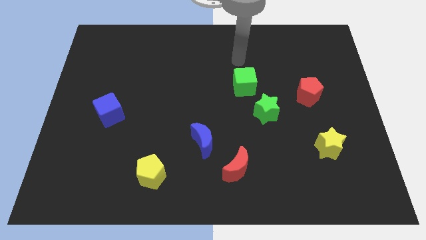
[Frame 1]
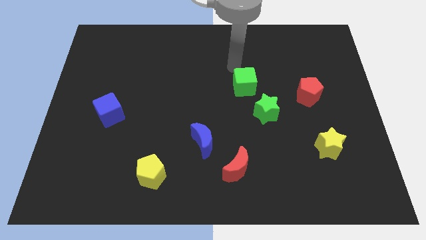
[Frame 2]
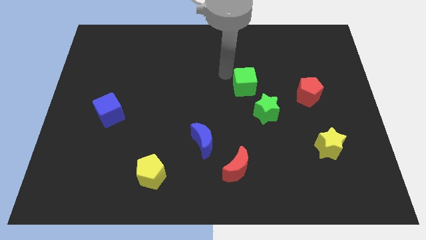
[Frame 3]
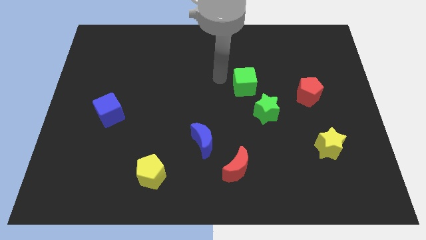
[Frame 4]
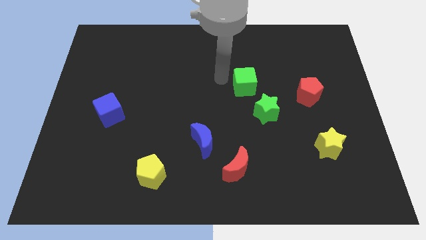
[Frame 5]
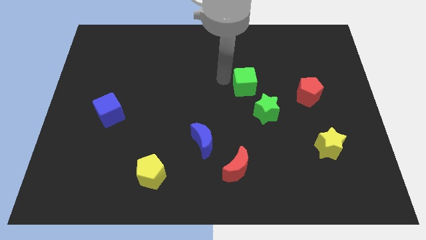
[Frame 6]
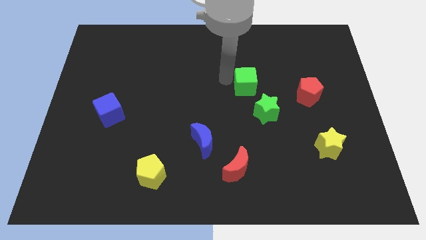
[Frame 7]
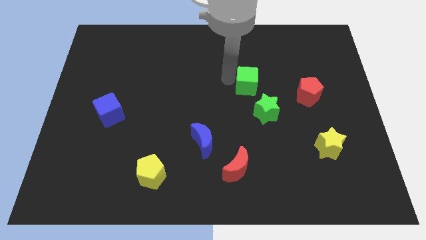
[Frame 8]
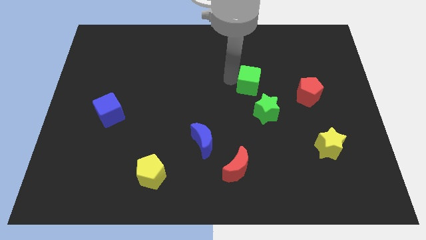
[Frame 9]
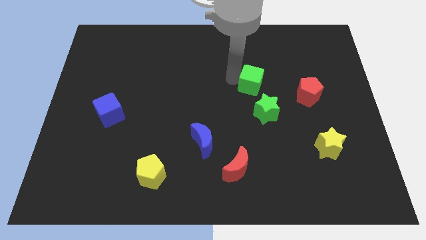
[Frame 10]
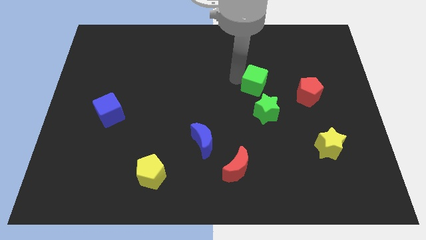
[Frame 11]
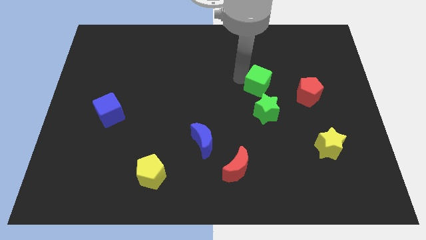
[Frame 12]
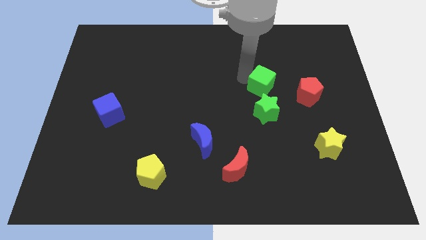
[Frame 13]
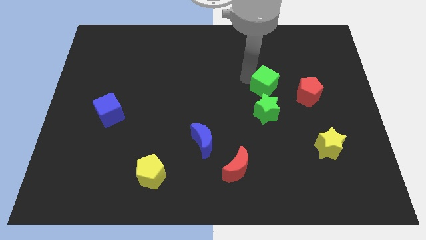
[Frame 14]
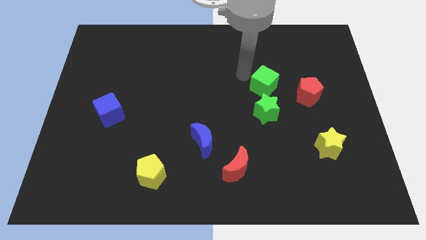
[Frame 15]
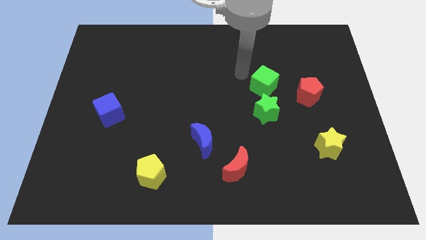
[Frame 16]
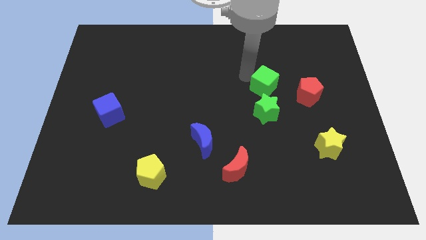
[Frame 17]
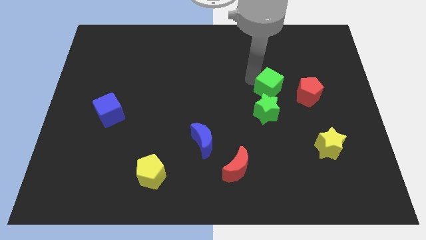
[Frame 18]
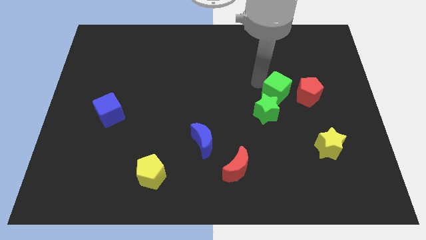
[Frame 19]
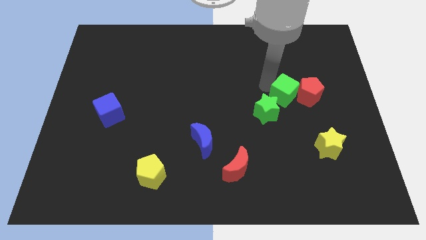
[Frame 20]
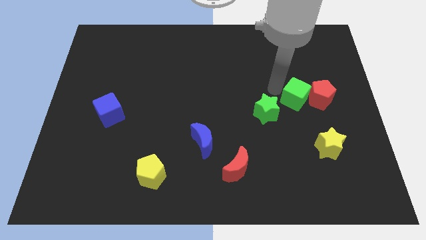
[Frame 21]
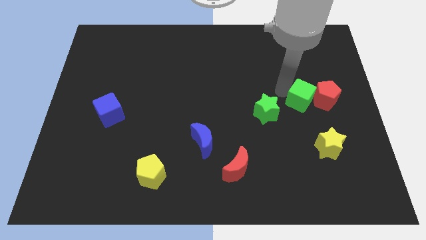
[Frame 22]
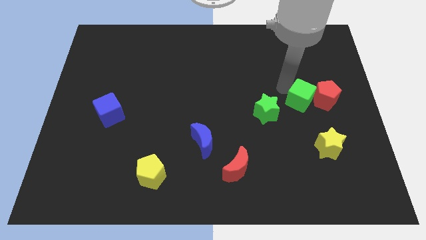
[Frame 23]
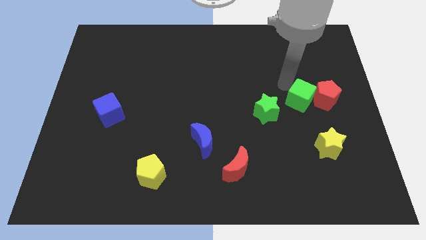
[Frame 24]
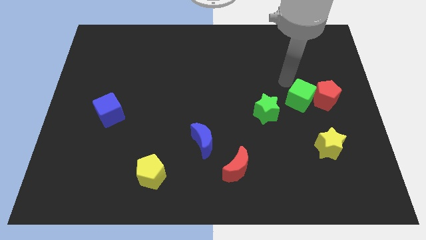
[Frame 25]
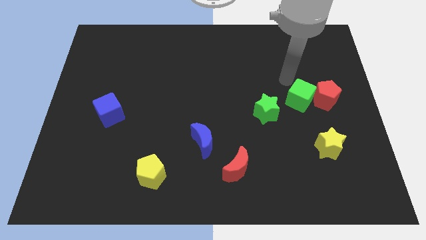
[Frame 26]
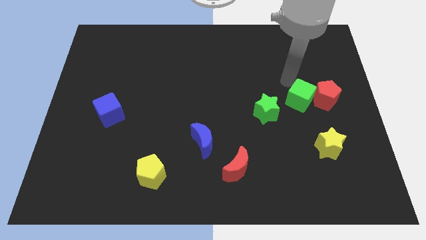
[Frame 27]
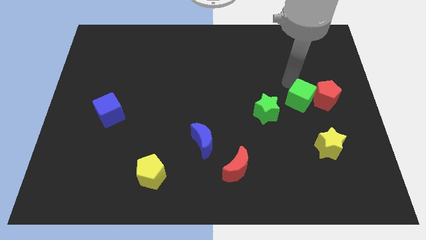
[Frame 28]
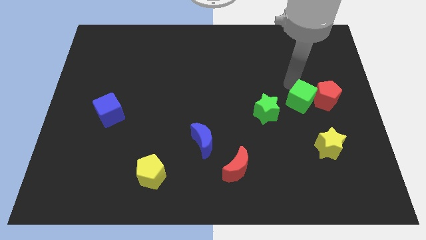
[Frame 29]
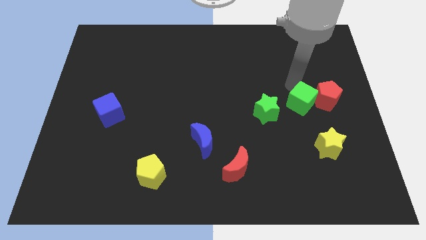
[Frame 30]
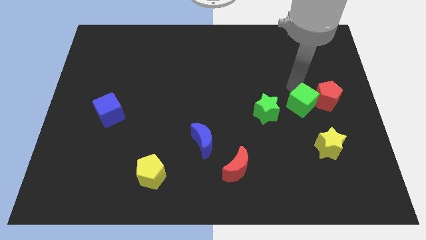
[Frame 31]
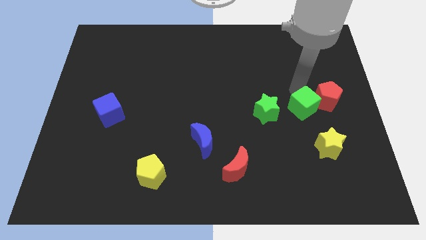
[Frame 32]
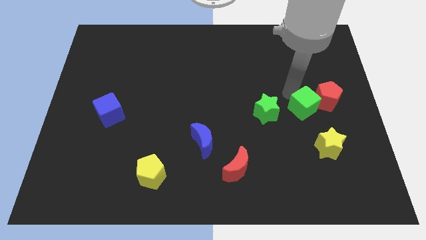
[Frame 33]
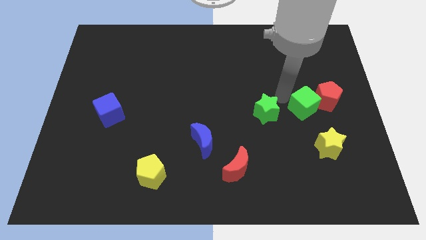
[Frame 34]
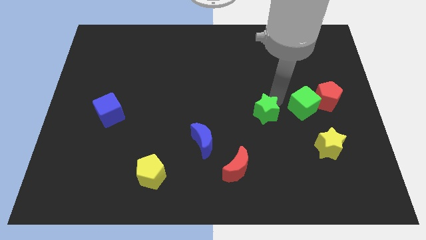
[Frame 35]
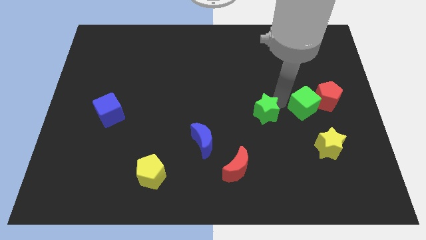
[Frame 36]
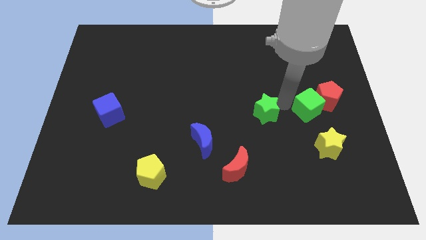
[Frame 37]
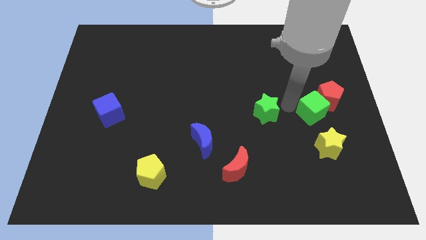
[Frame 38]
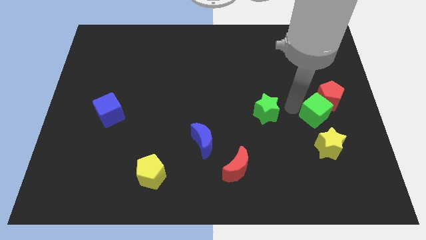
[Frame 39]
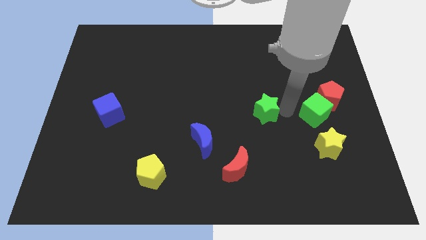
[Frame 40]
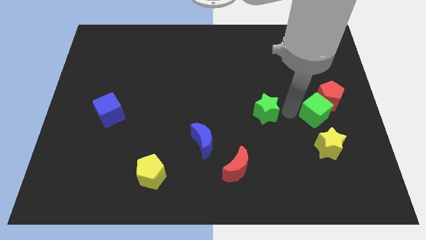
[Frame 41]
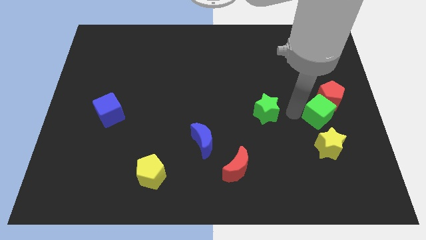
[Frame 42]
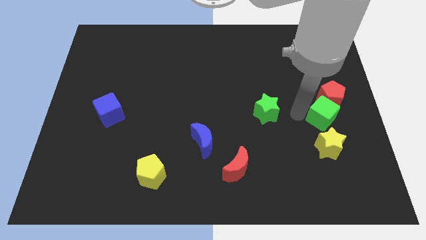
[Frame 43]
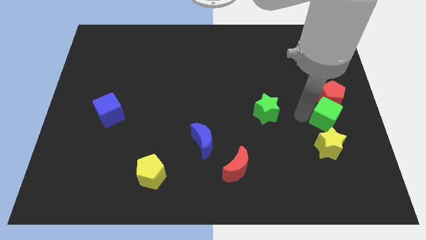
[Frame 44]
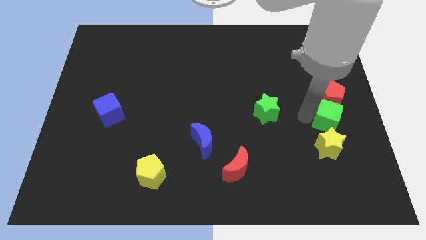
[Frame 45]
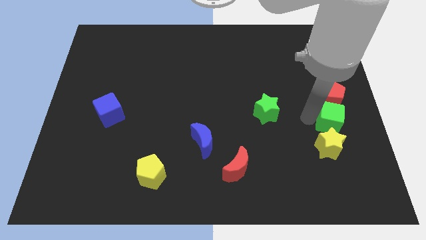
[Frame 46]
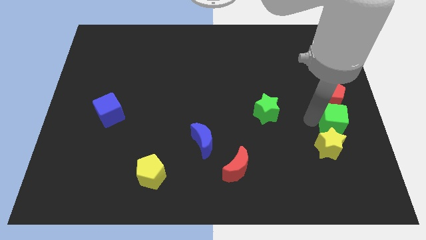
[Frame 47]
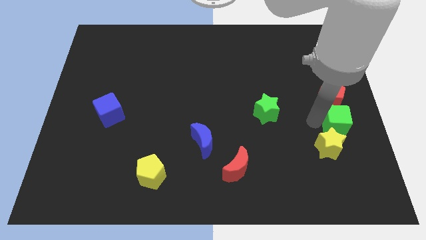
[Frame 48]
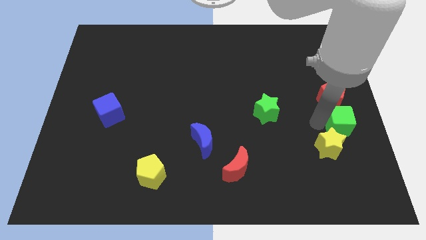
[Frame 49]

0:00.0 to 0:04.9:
put the green cube to the bottom right side of the red pentagon

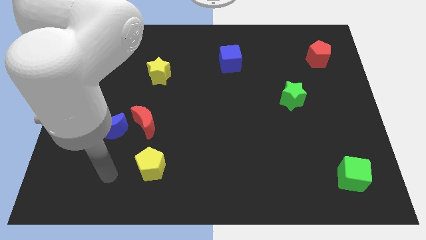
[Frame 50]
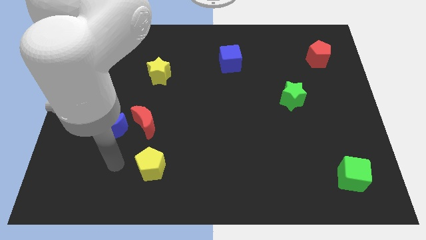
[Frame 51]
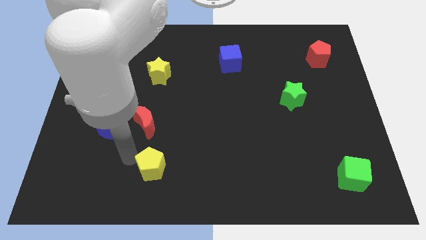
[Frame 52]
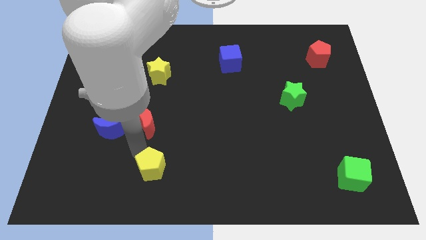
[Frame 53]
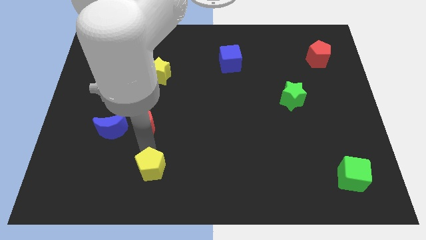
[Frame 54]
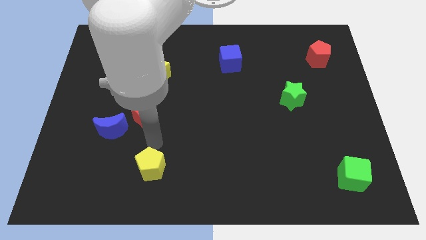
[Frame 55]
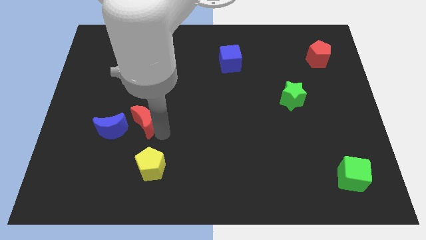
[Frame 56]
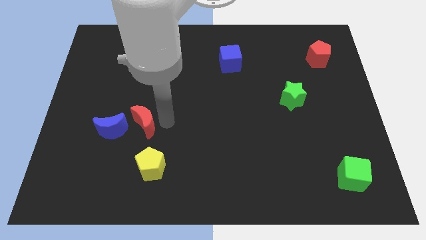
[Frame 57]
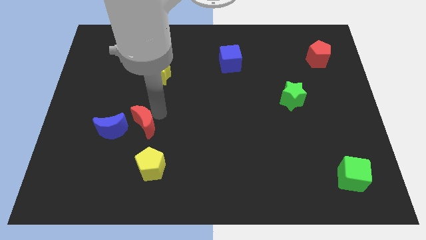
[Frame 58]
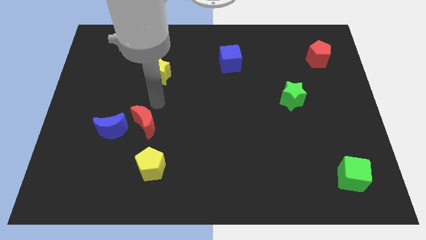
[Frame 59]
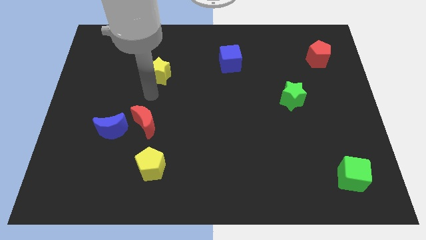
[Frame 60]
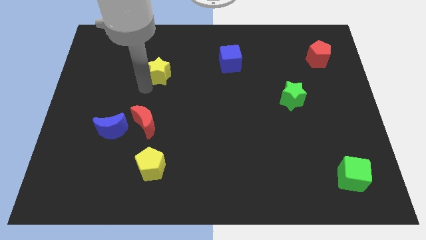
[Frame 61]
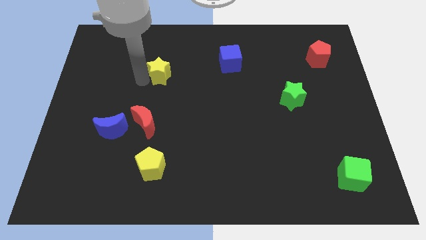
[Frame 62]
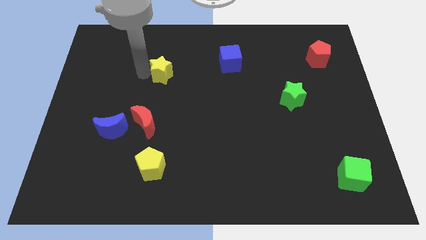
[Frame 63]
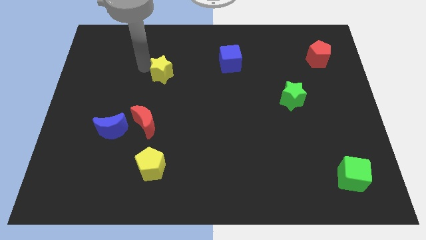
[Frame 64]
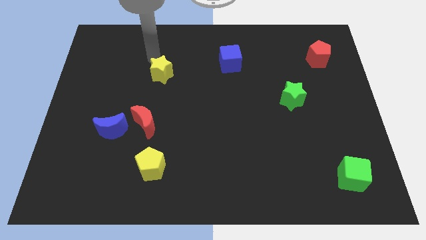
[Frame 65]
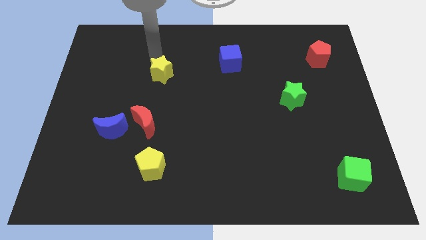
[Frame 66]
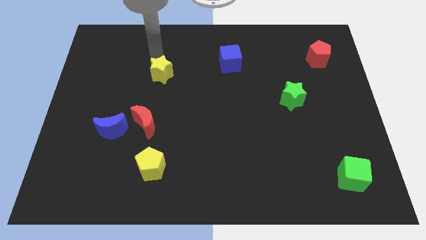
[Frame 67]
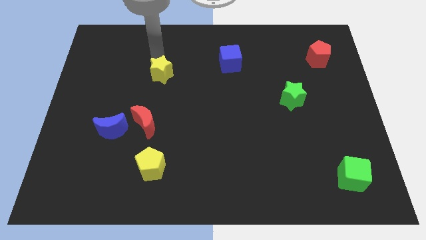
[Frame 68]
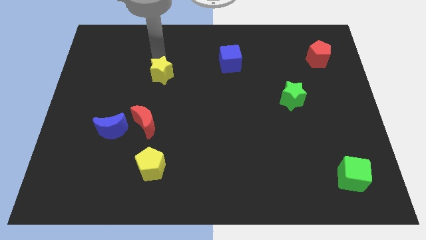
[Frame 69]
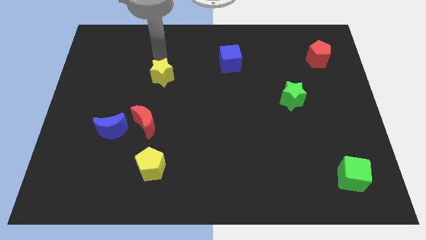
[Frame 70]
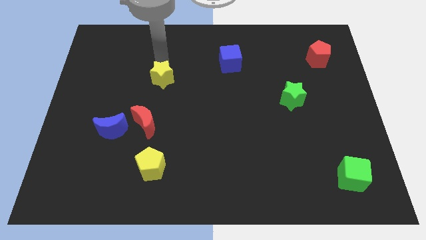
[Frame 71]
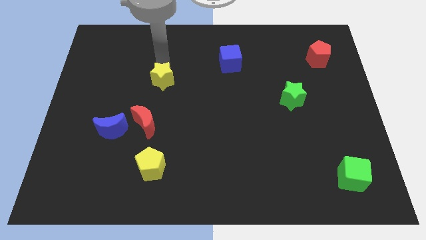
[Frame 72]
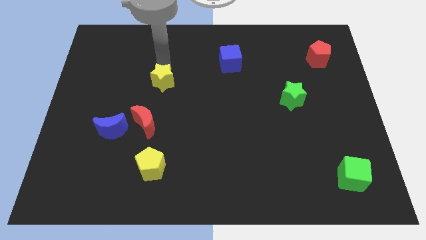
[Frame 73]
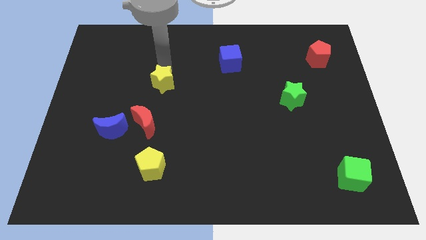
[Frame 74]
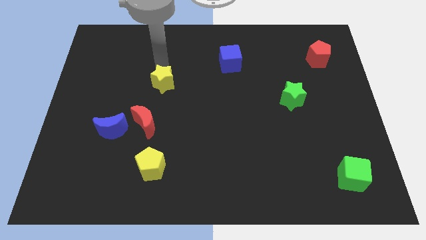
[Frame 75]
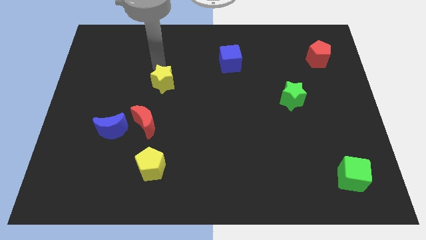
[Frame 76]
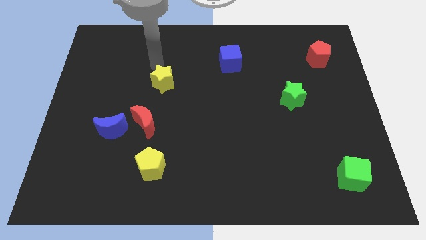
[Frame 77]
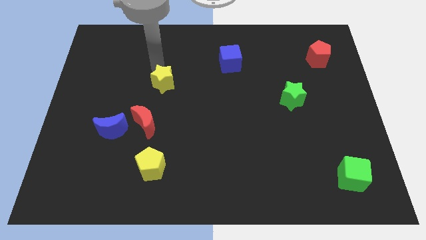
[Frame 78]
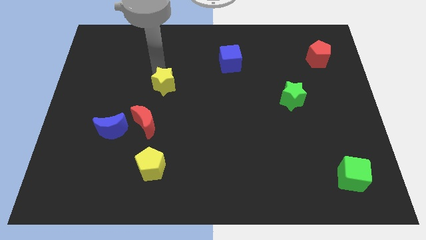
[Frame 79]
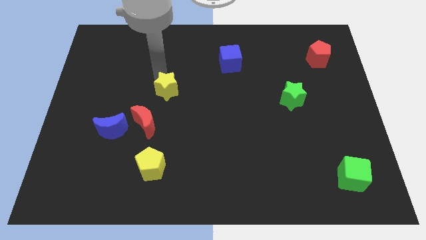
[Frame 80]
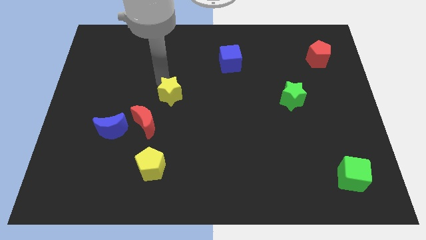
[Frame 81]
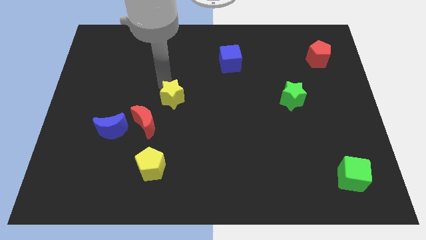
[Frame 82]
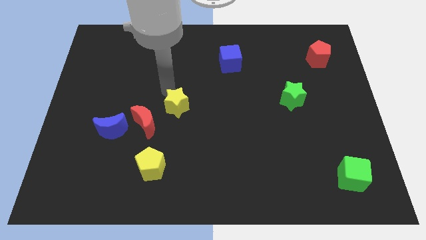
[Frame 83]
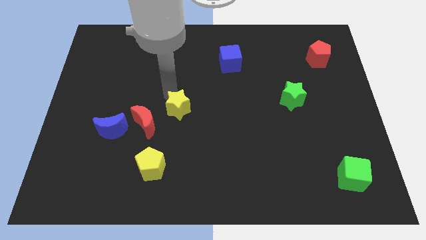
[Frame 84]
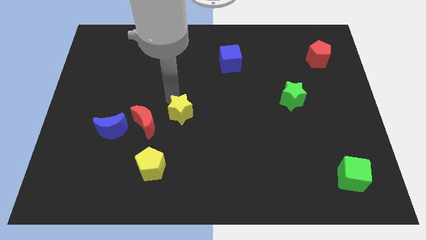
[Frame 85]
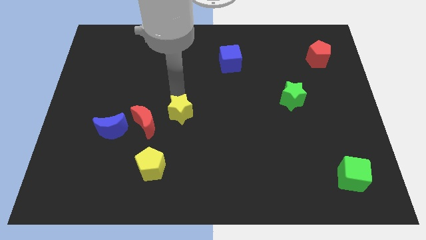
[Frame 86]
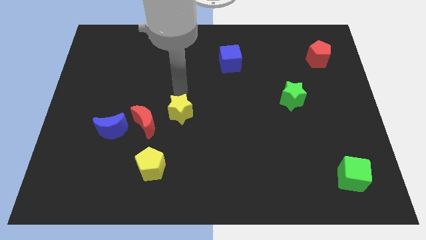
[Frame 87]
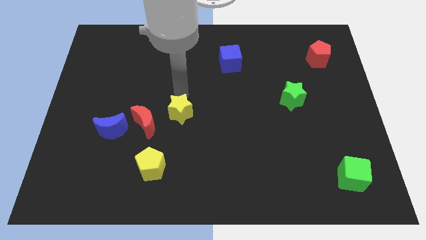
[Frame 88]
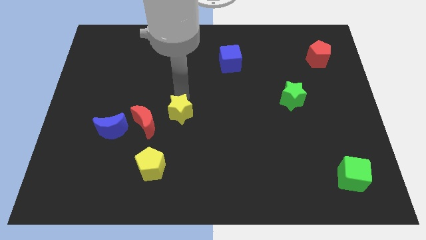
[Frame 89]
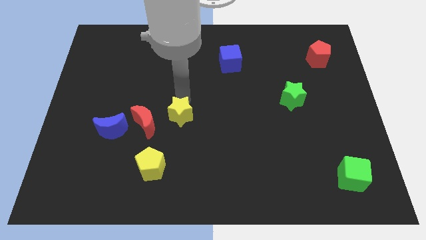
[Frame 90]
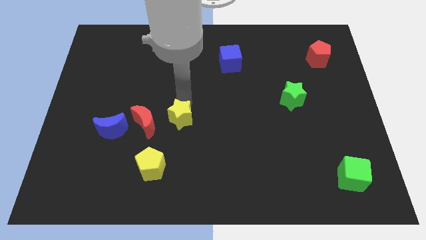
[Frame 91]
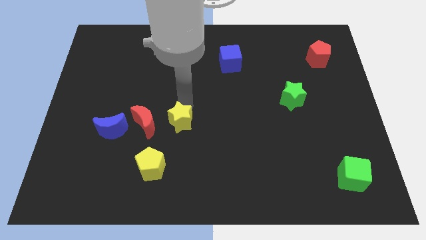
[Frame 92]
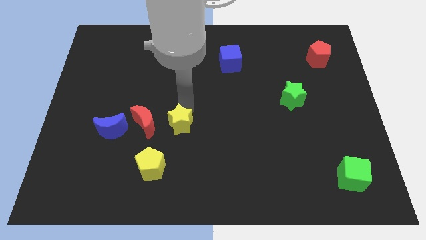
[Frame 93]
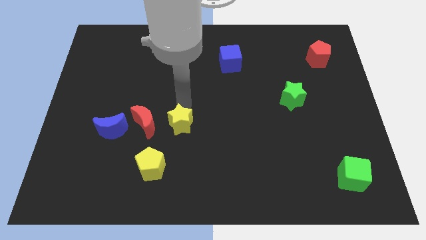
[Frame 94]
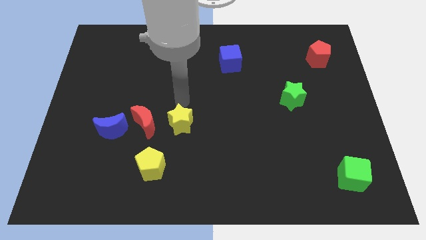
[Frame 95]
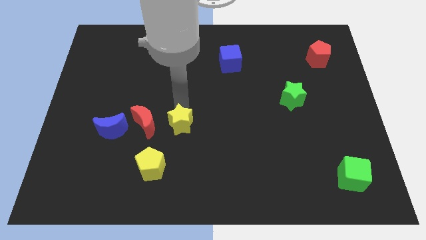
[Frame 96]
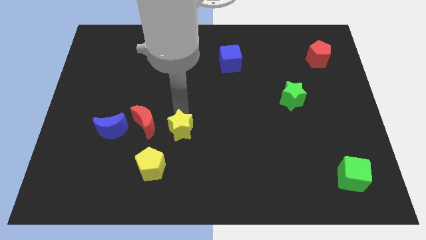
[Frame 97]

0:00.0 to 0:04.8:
move the yellow star to the top right side of the yellow pentagon
